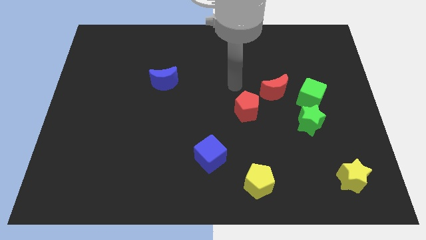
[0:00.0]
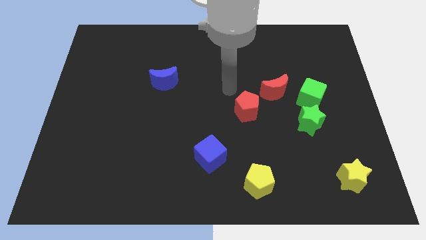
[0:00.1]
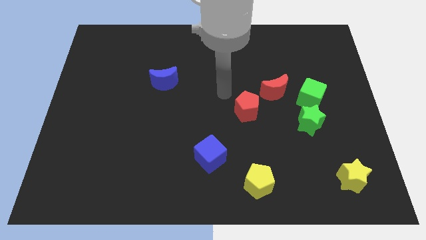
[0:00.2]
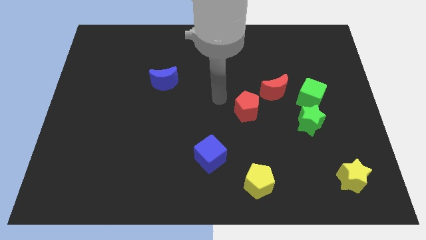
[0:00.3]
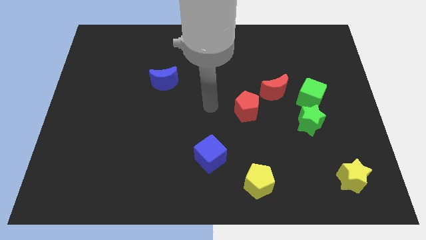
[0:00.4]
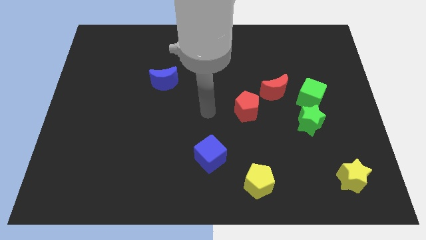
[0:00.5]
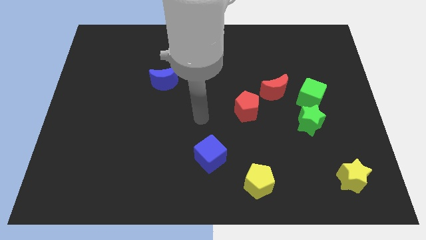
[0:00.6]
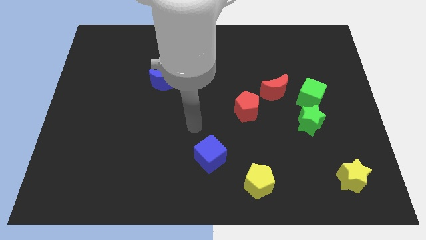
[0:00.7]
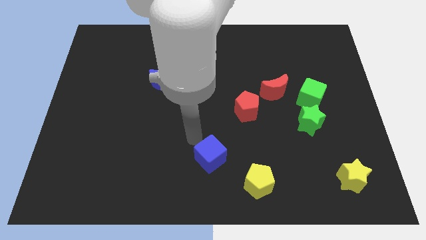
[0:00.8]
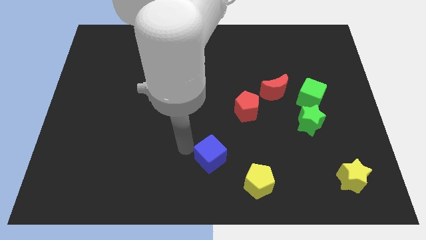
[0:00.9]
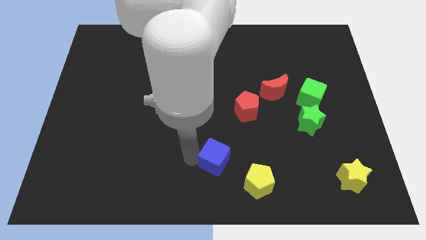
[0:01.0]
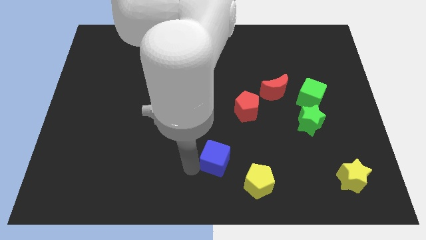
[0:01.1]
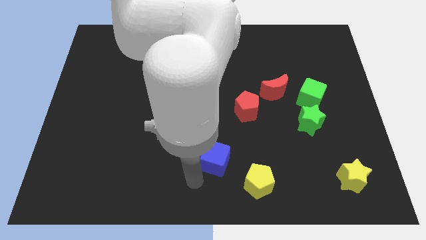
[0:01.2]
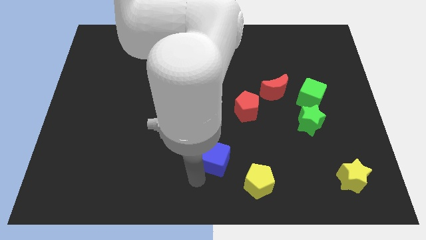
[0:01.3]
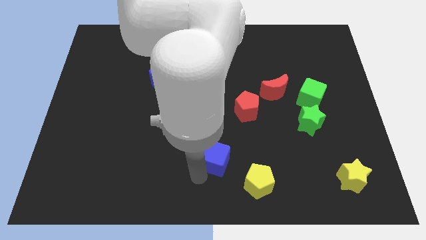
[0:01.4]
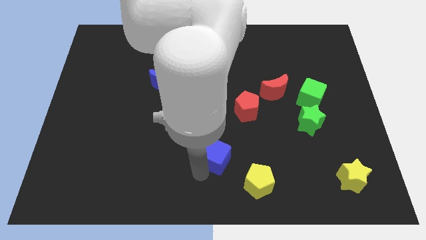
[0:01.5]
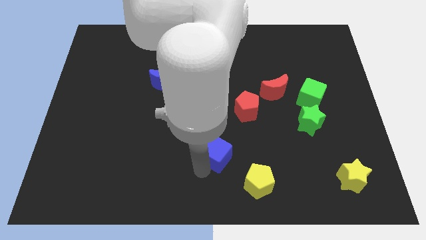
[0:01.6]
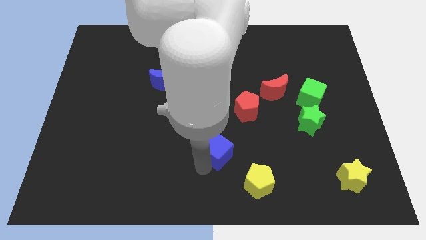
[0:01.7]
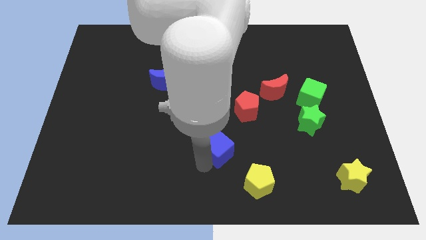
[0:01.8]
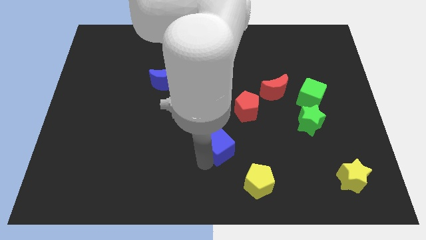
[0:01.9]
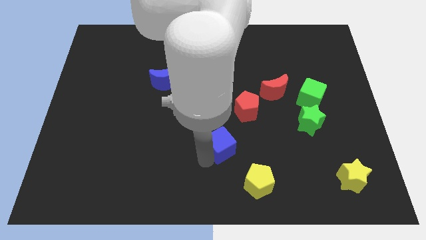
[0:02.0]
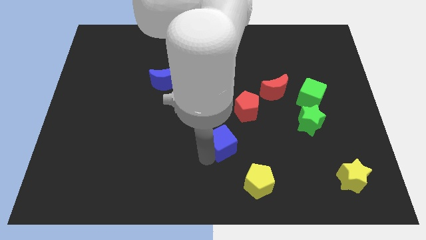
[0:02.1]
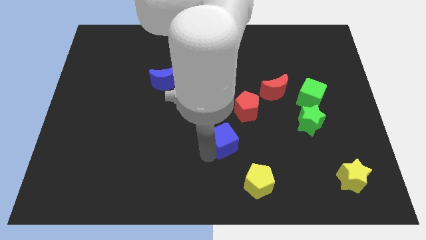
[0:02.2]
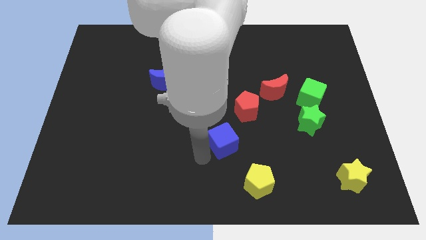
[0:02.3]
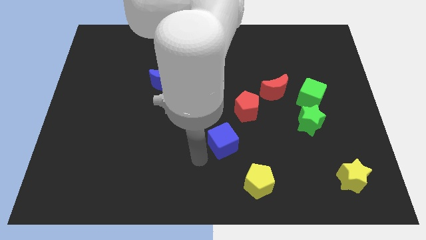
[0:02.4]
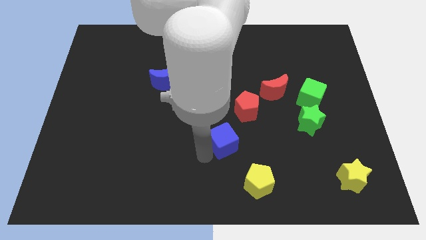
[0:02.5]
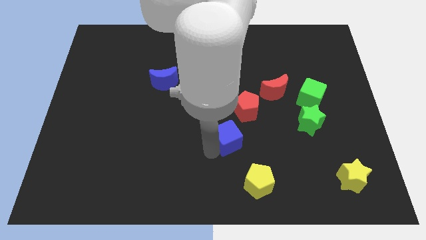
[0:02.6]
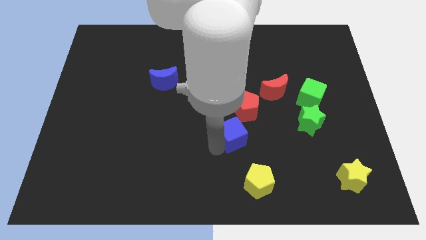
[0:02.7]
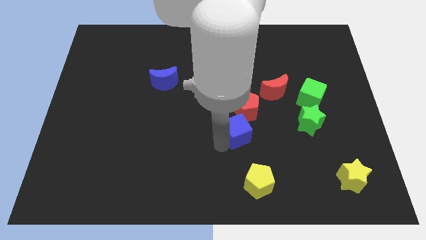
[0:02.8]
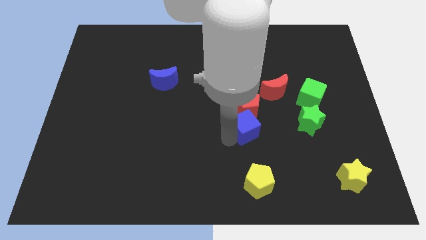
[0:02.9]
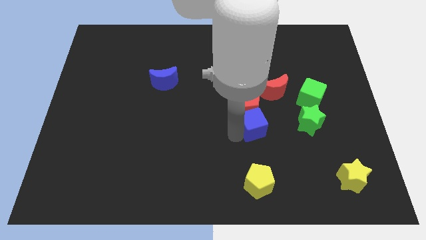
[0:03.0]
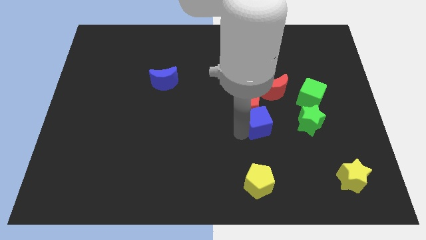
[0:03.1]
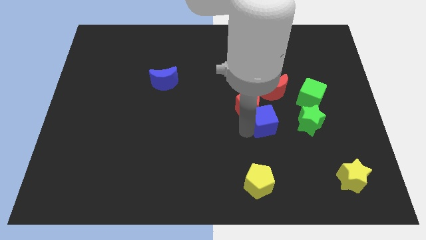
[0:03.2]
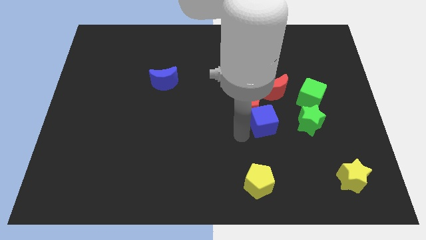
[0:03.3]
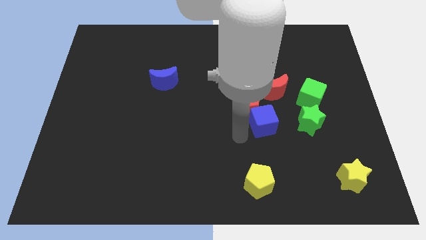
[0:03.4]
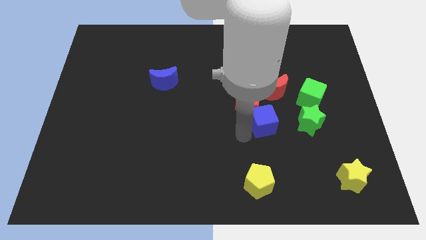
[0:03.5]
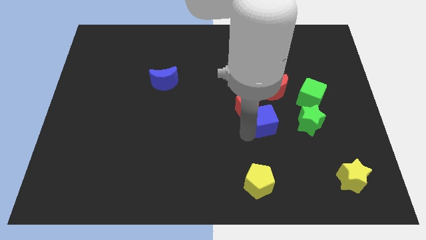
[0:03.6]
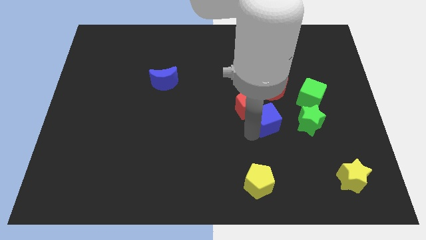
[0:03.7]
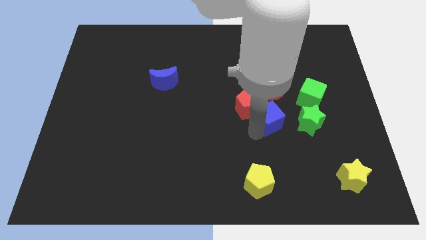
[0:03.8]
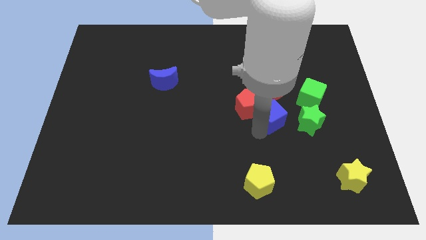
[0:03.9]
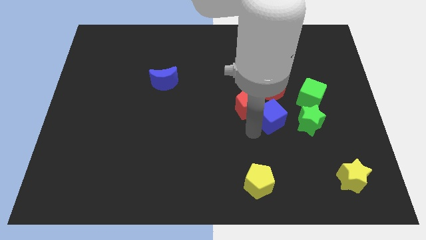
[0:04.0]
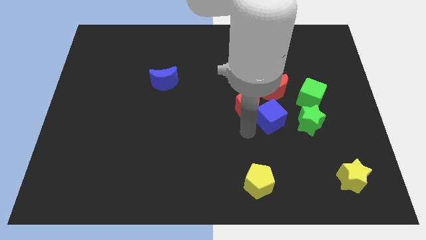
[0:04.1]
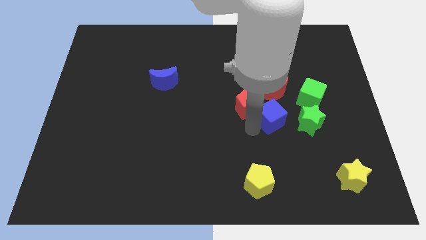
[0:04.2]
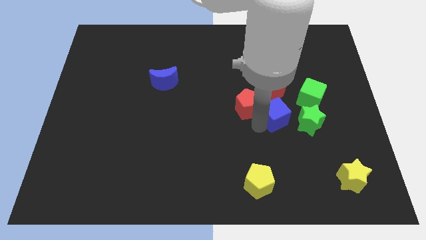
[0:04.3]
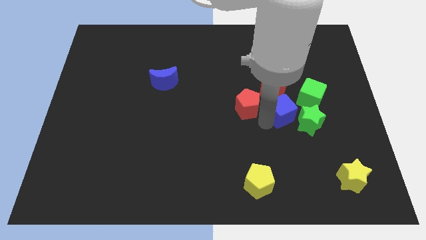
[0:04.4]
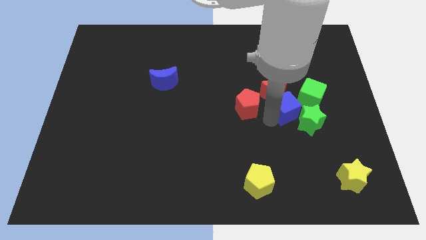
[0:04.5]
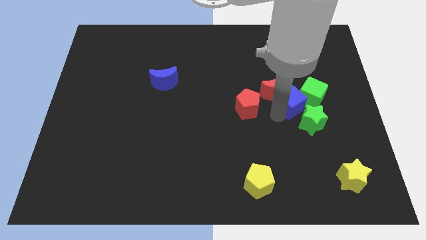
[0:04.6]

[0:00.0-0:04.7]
move the blue cube close to the green cube

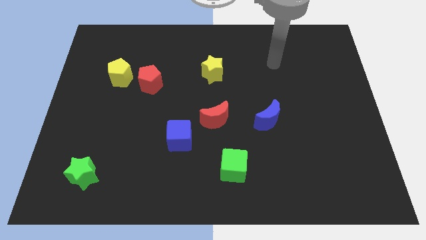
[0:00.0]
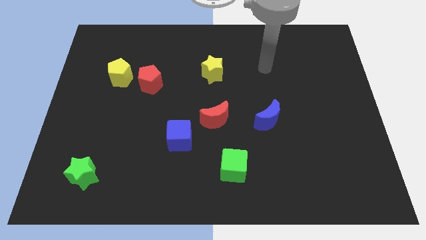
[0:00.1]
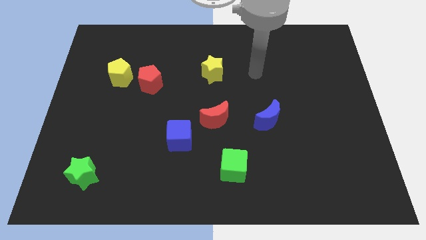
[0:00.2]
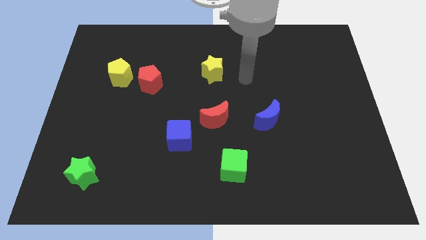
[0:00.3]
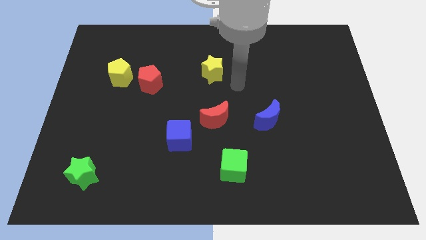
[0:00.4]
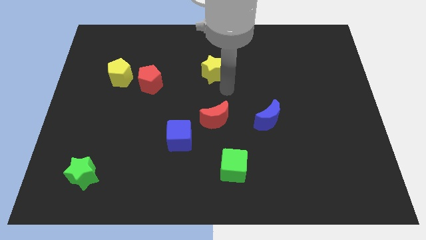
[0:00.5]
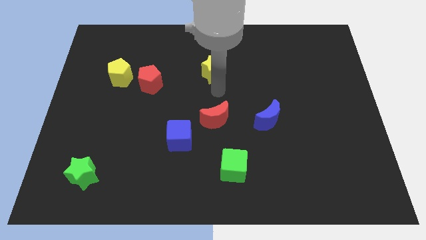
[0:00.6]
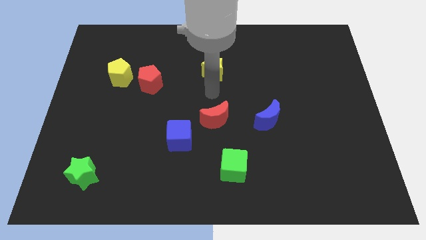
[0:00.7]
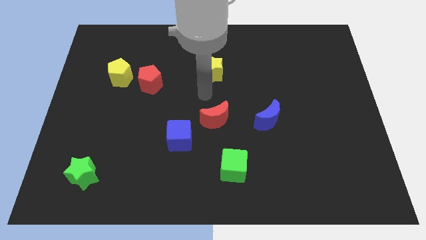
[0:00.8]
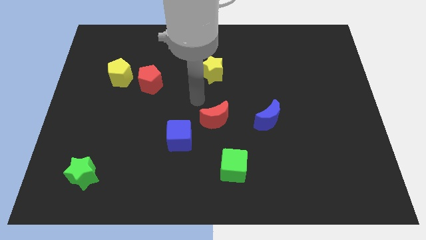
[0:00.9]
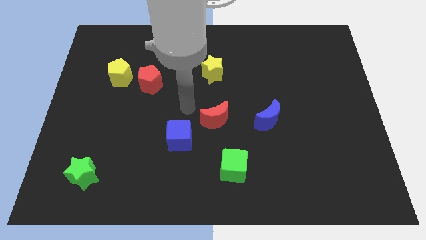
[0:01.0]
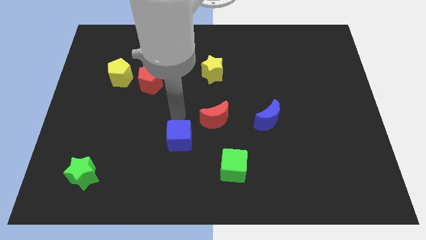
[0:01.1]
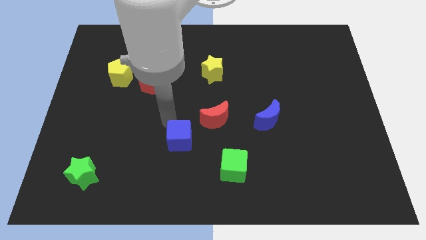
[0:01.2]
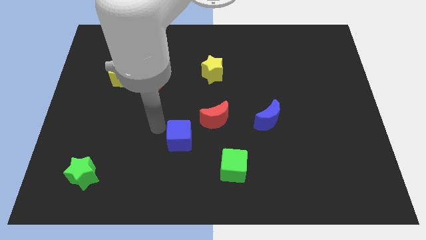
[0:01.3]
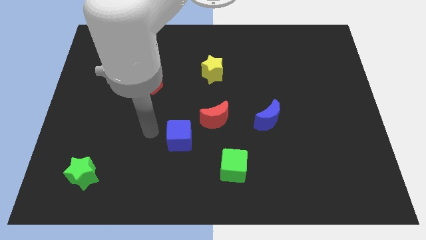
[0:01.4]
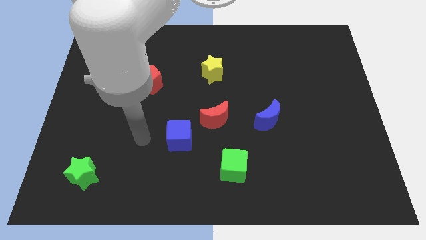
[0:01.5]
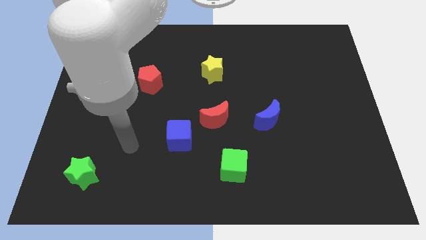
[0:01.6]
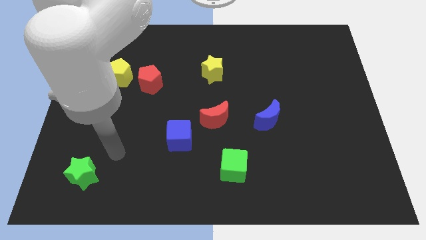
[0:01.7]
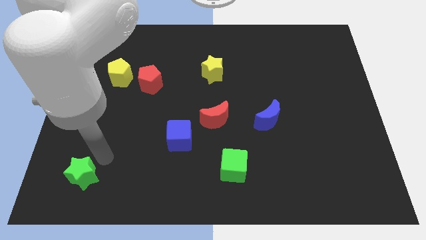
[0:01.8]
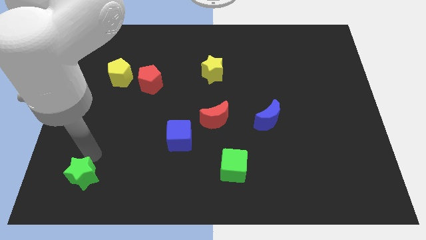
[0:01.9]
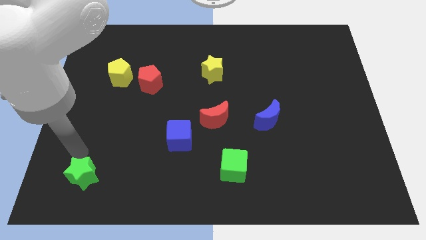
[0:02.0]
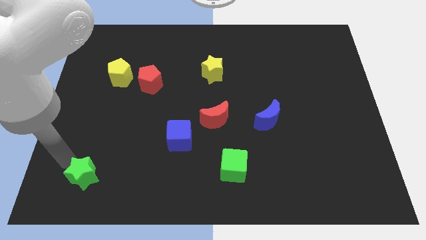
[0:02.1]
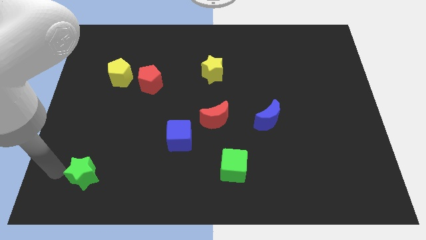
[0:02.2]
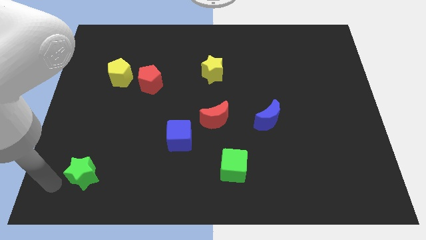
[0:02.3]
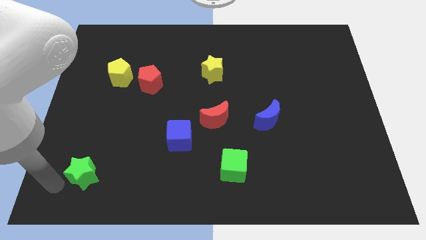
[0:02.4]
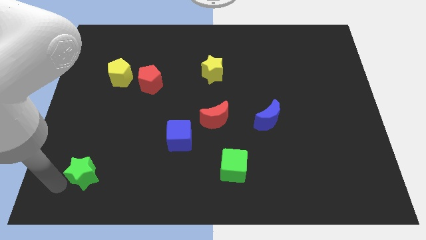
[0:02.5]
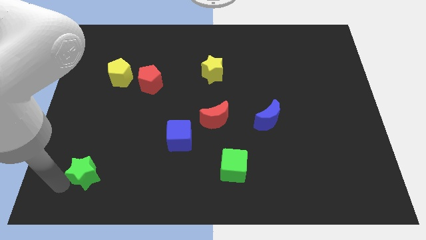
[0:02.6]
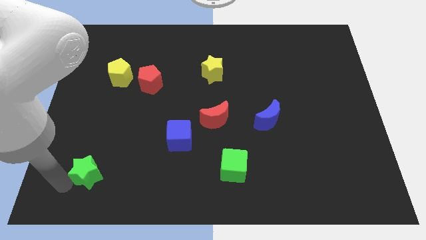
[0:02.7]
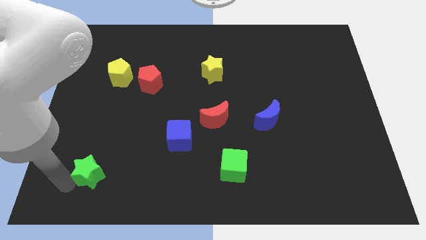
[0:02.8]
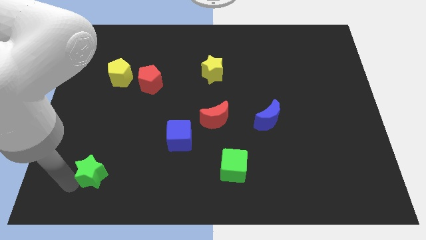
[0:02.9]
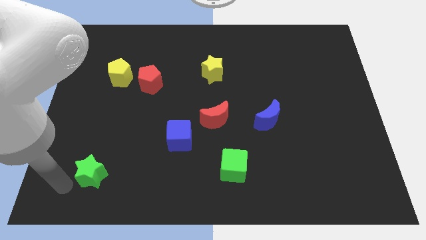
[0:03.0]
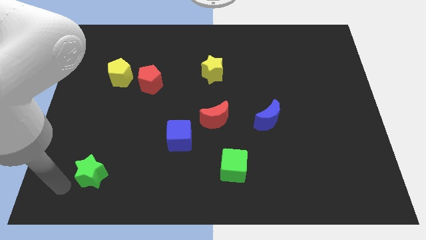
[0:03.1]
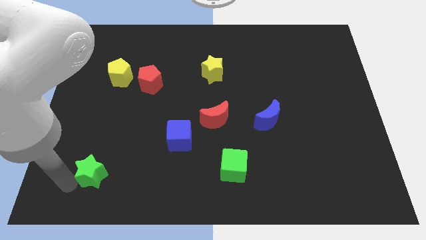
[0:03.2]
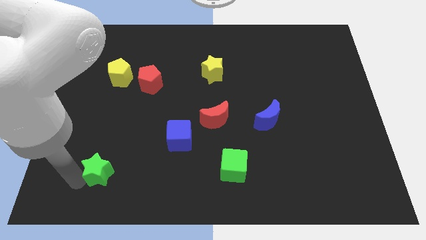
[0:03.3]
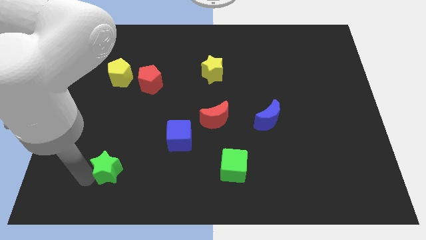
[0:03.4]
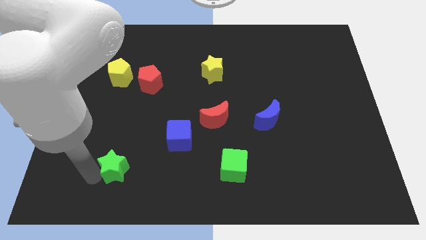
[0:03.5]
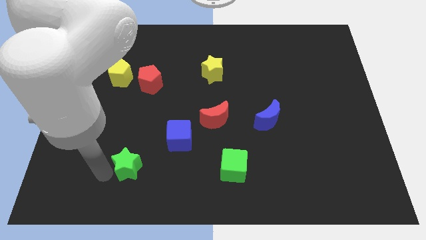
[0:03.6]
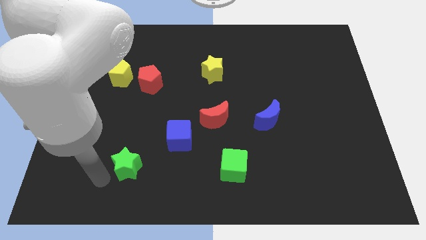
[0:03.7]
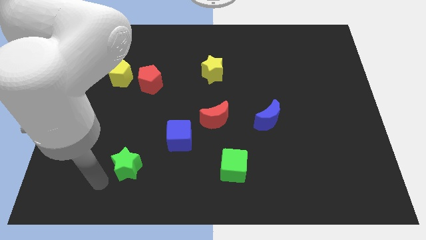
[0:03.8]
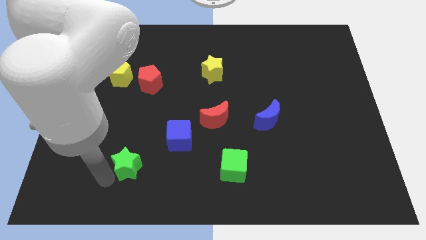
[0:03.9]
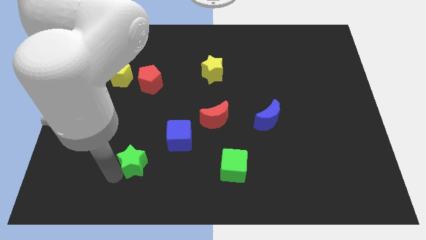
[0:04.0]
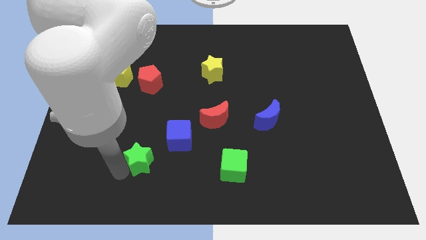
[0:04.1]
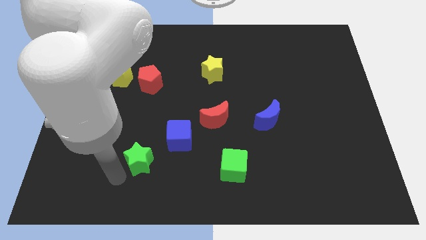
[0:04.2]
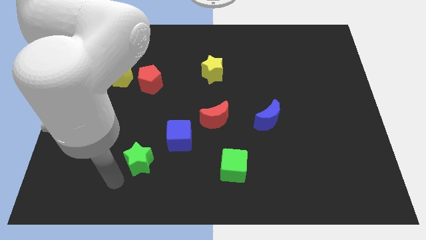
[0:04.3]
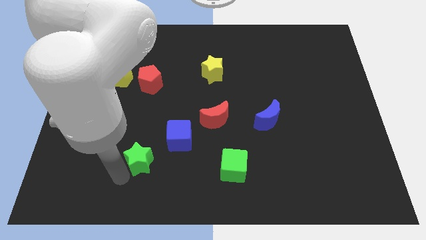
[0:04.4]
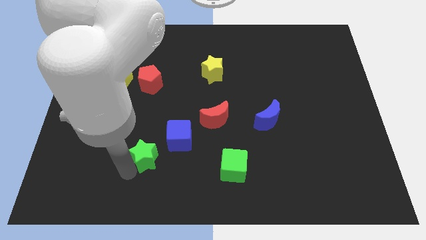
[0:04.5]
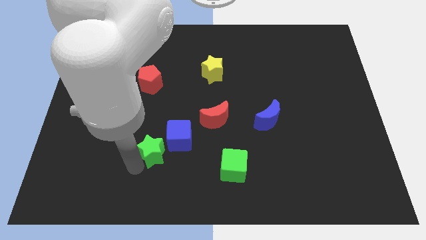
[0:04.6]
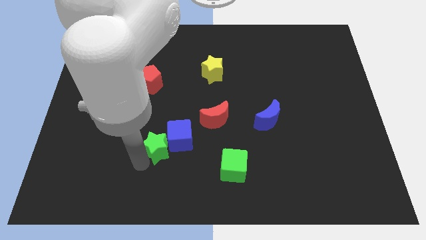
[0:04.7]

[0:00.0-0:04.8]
push the green star to the blue cube
